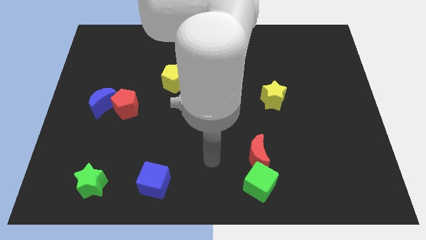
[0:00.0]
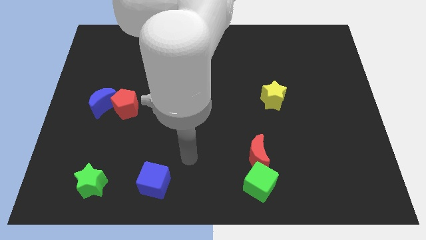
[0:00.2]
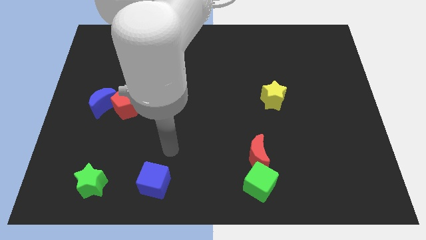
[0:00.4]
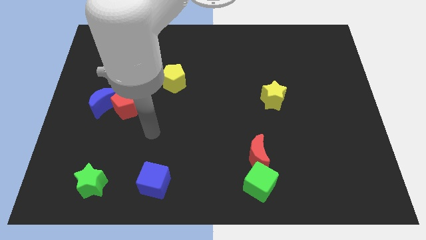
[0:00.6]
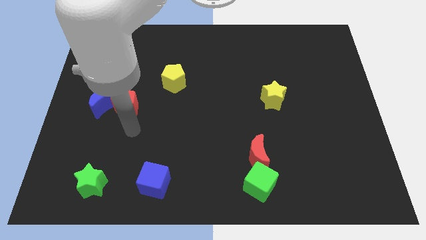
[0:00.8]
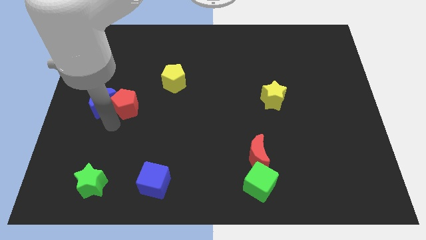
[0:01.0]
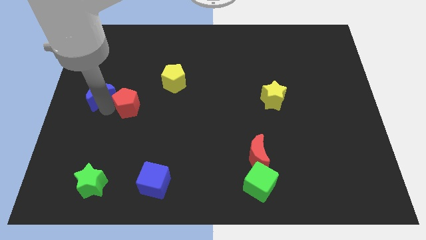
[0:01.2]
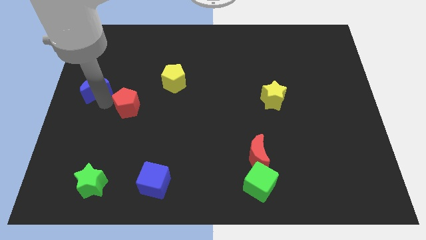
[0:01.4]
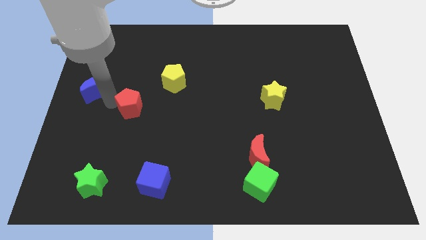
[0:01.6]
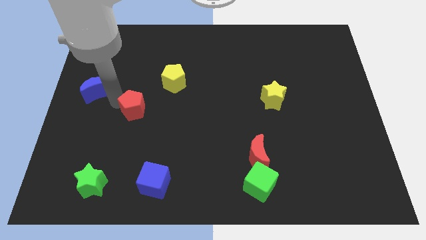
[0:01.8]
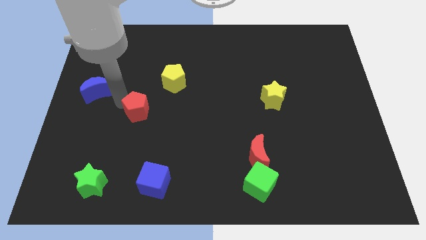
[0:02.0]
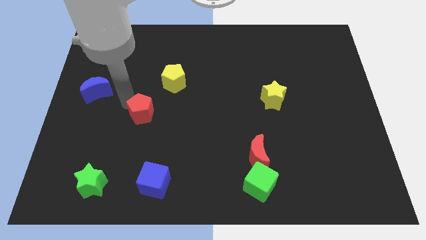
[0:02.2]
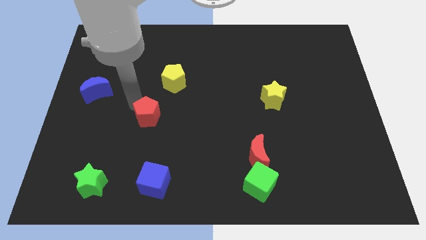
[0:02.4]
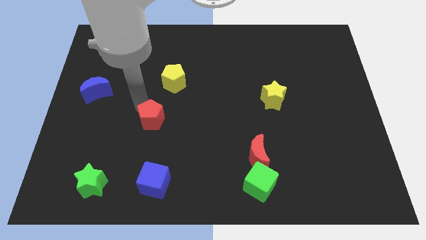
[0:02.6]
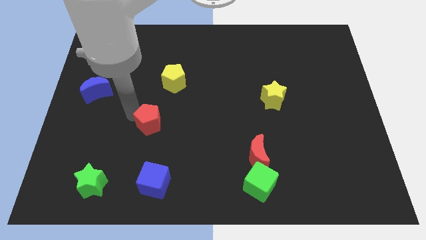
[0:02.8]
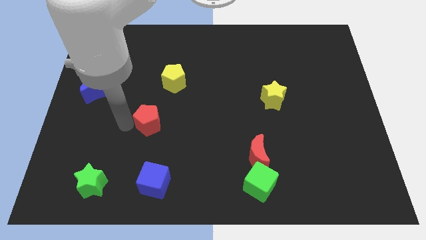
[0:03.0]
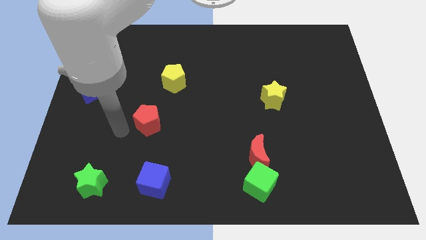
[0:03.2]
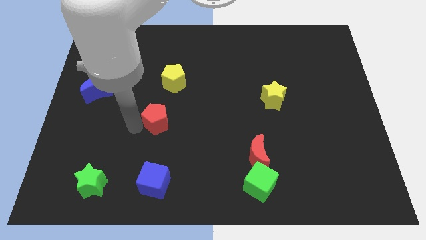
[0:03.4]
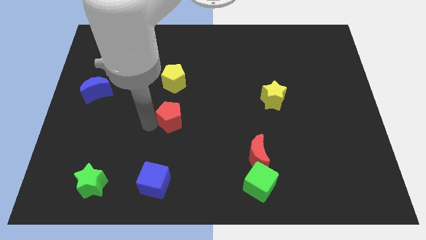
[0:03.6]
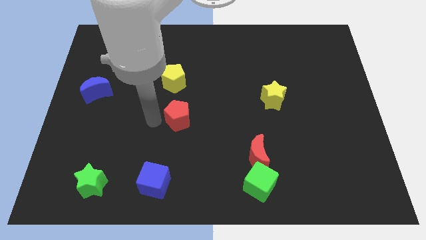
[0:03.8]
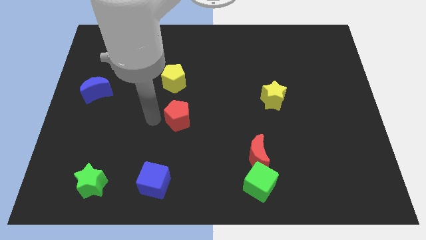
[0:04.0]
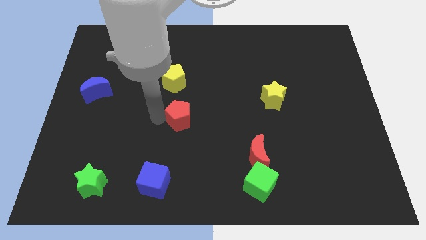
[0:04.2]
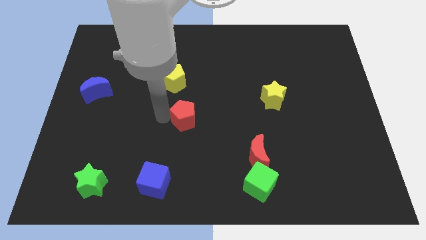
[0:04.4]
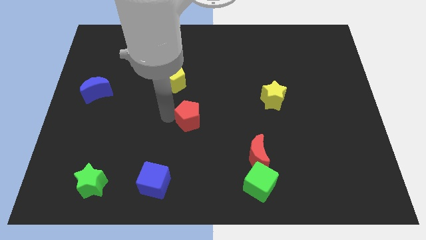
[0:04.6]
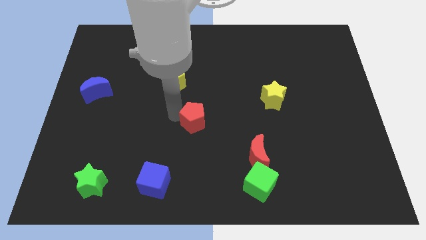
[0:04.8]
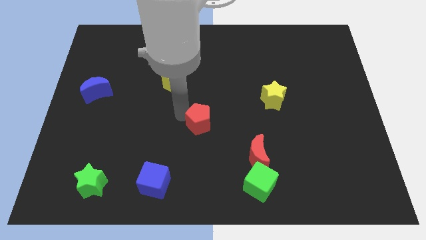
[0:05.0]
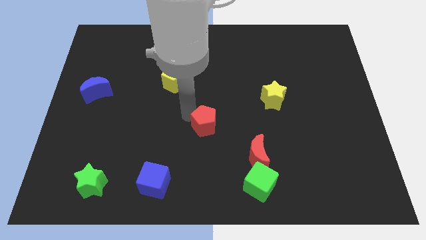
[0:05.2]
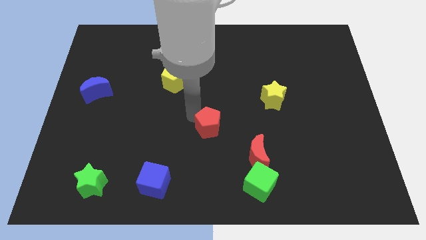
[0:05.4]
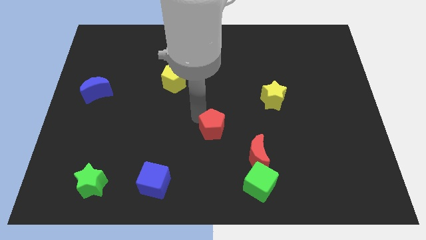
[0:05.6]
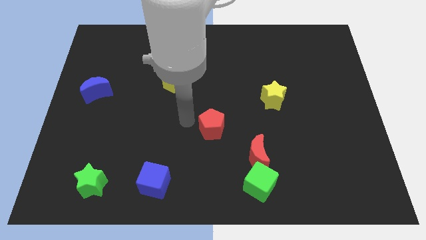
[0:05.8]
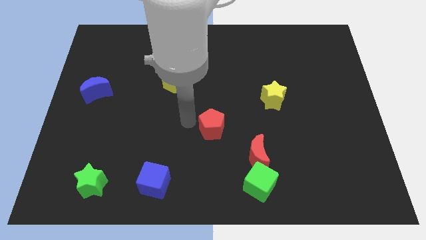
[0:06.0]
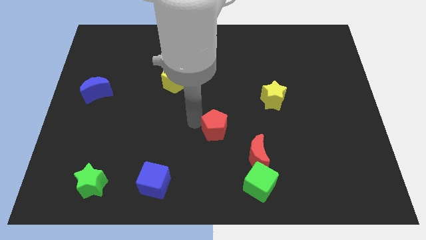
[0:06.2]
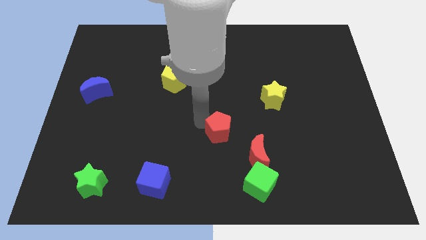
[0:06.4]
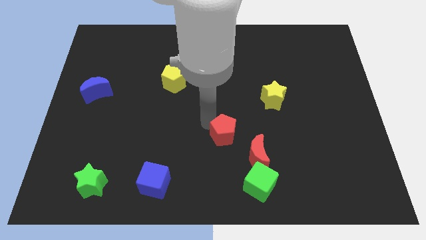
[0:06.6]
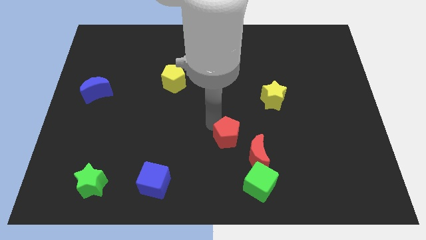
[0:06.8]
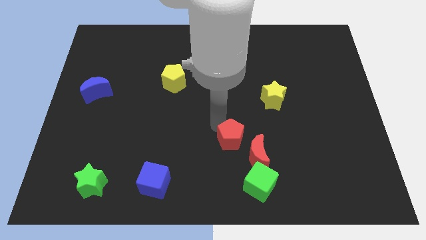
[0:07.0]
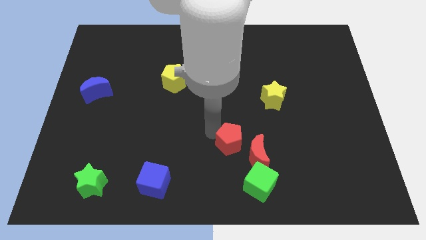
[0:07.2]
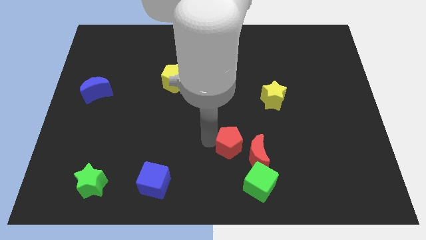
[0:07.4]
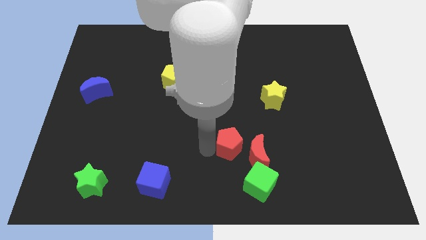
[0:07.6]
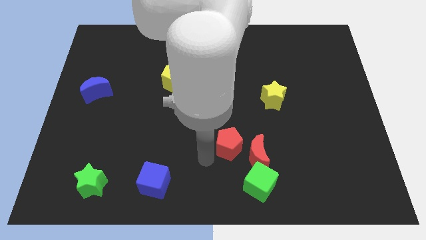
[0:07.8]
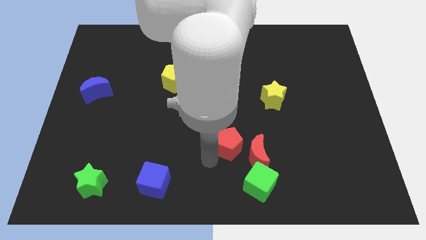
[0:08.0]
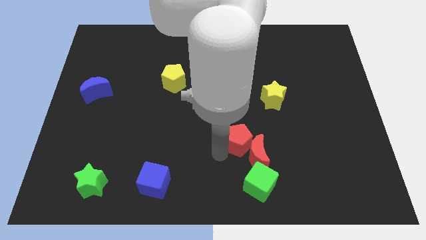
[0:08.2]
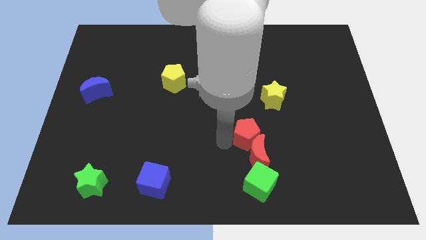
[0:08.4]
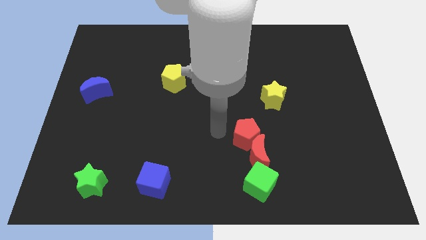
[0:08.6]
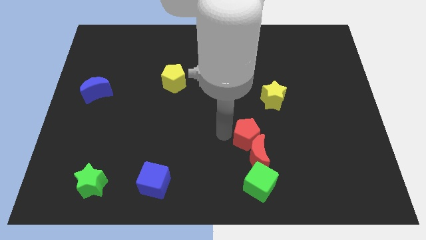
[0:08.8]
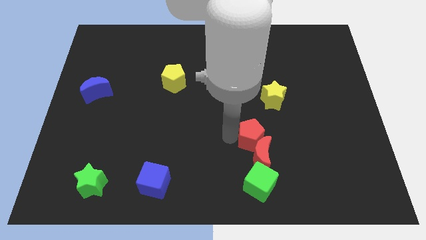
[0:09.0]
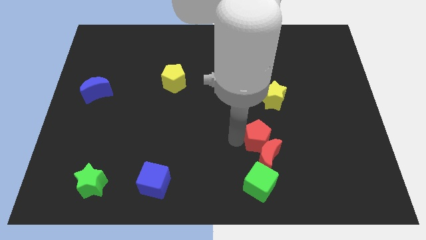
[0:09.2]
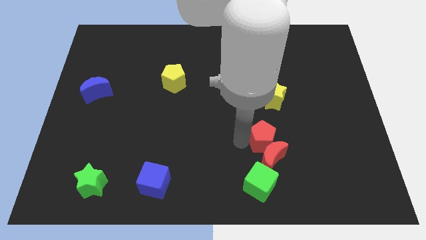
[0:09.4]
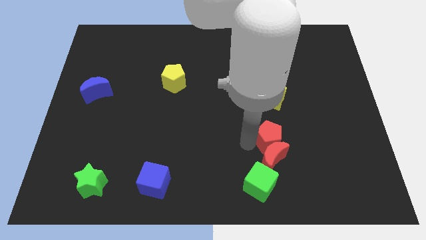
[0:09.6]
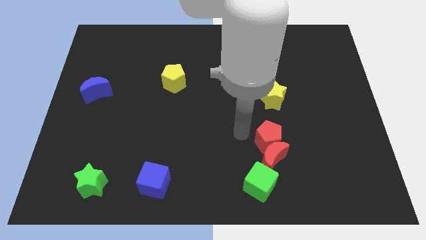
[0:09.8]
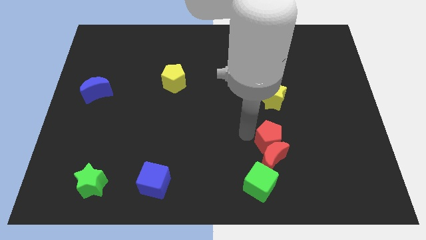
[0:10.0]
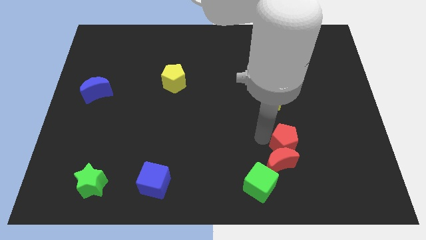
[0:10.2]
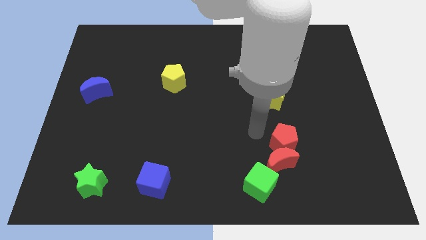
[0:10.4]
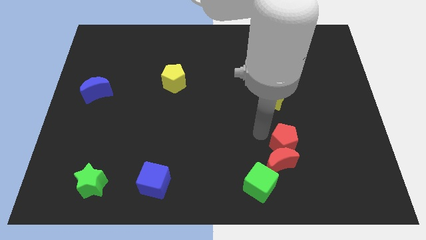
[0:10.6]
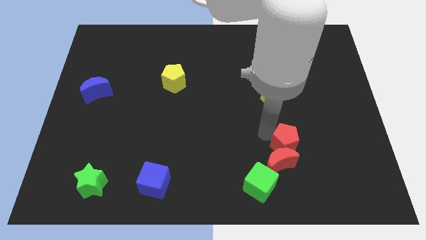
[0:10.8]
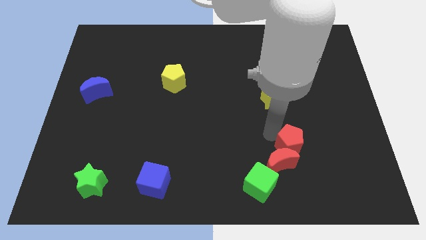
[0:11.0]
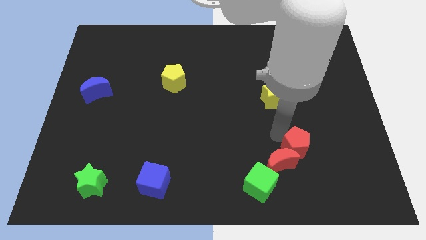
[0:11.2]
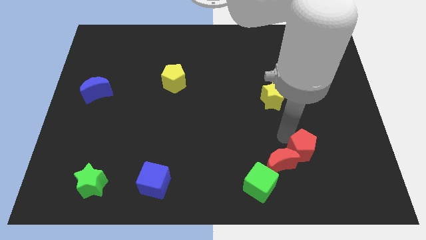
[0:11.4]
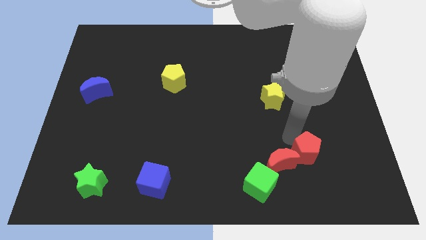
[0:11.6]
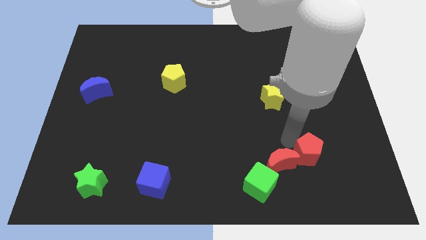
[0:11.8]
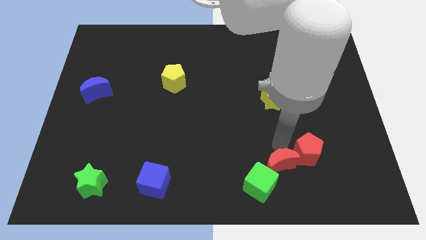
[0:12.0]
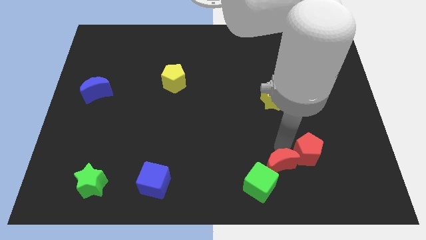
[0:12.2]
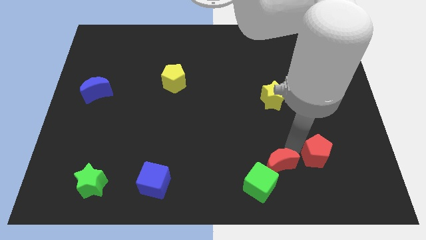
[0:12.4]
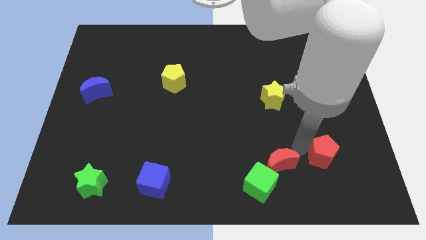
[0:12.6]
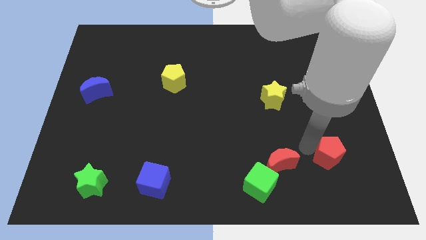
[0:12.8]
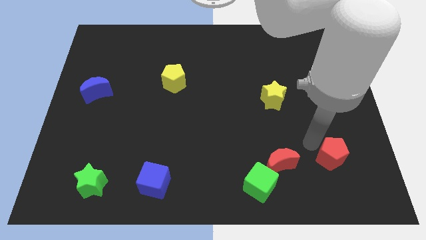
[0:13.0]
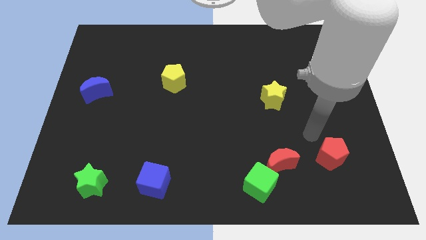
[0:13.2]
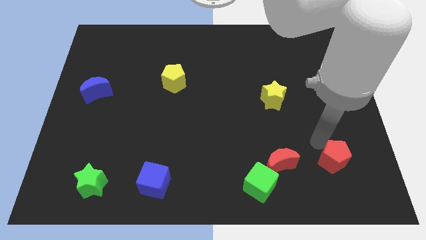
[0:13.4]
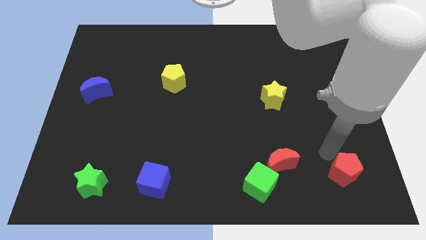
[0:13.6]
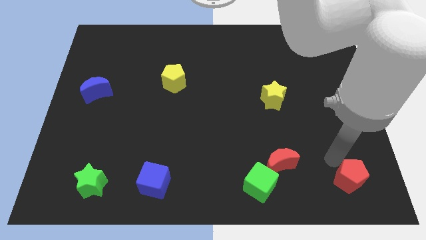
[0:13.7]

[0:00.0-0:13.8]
slide the red pentagon to the bottom right of the board
